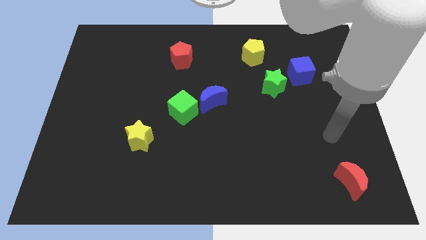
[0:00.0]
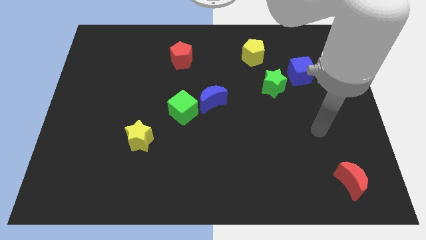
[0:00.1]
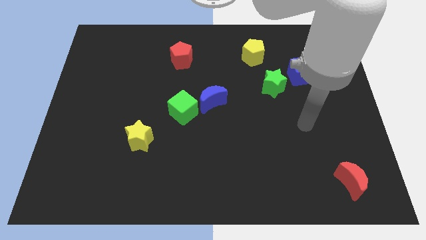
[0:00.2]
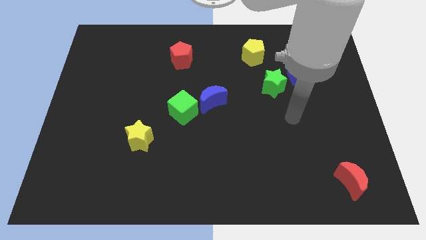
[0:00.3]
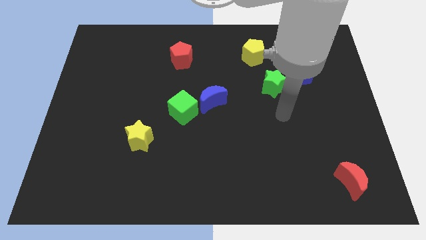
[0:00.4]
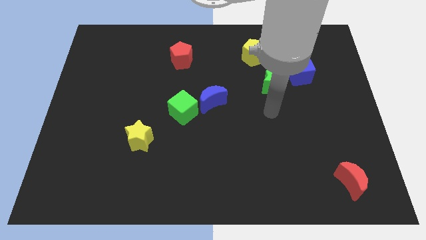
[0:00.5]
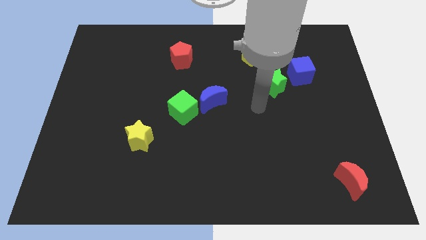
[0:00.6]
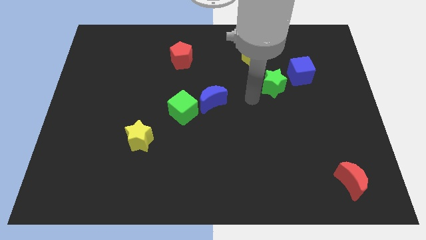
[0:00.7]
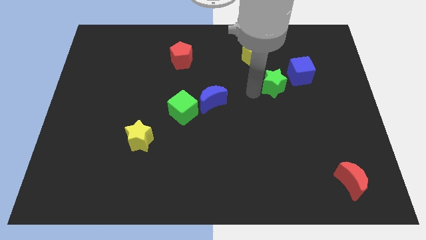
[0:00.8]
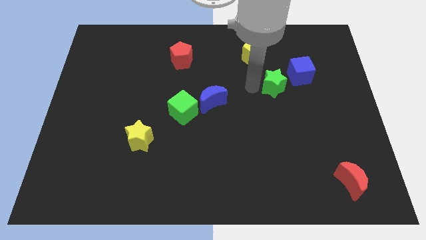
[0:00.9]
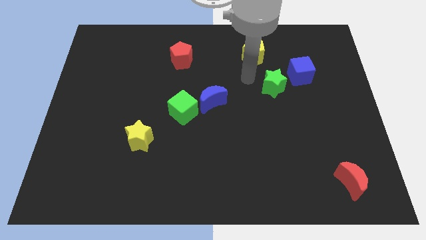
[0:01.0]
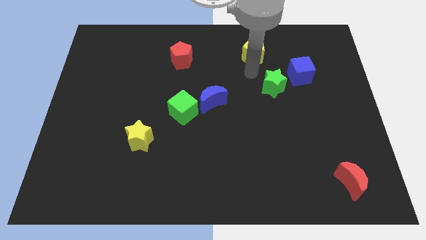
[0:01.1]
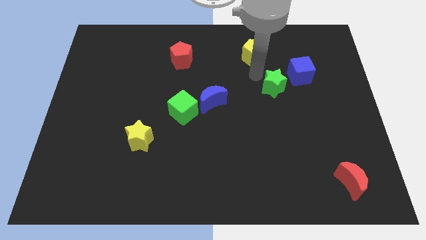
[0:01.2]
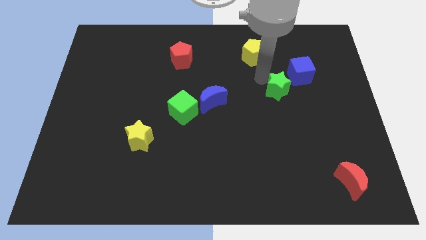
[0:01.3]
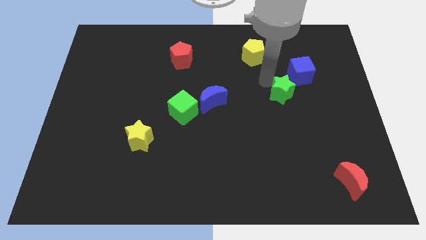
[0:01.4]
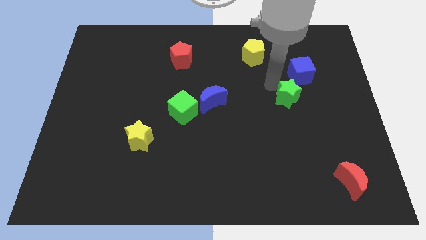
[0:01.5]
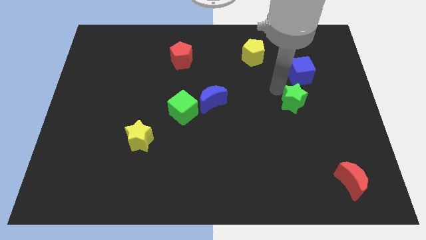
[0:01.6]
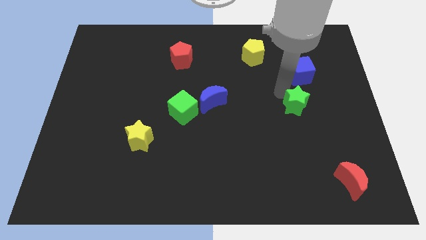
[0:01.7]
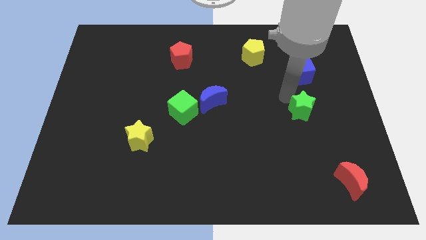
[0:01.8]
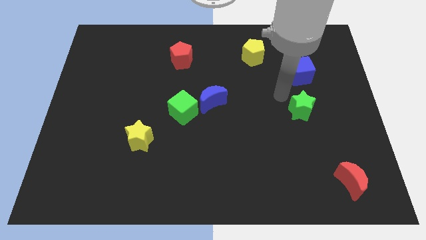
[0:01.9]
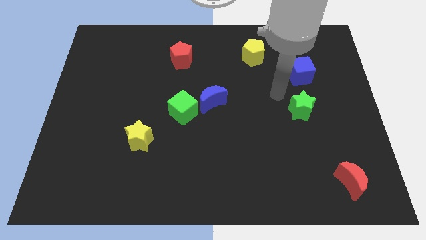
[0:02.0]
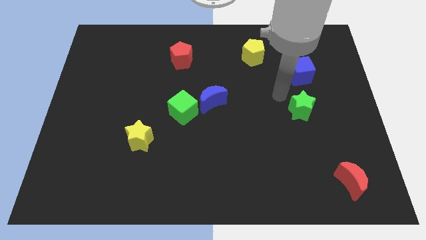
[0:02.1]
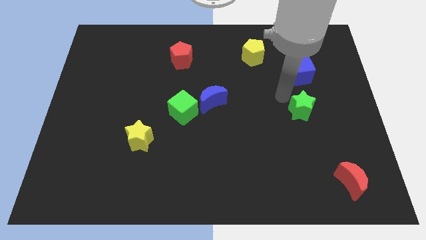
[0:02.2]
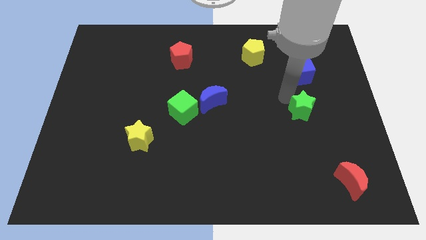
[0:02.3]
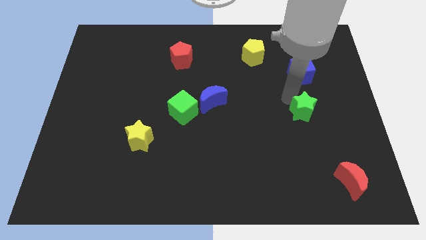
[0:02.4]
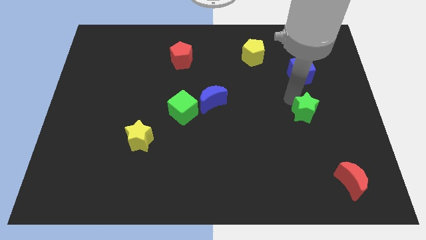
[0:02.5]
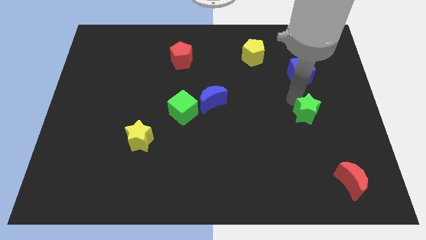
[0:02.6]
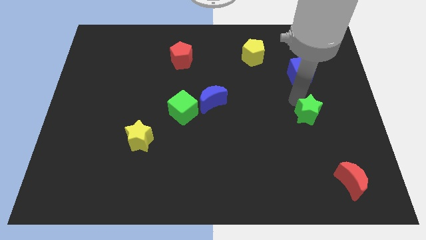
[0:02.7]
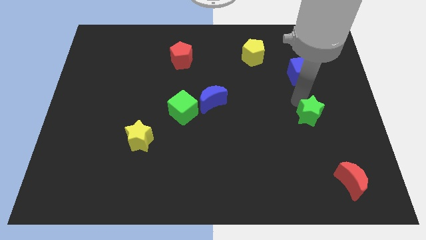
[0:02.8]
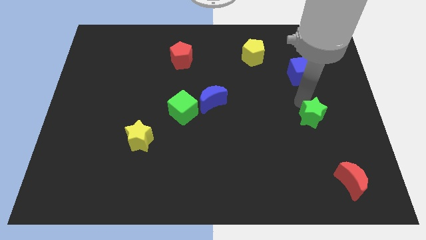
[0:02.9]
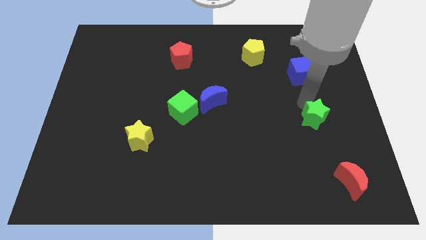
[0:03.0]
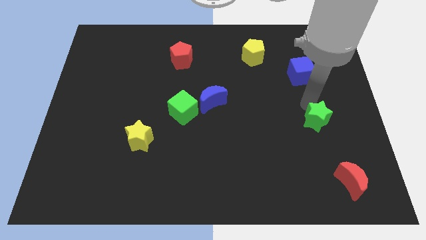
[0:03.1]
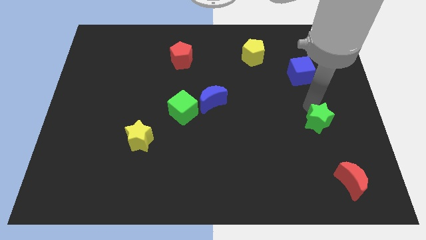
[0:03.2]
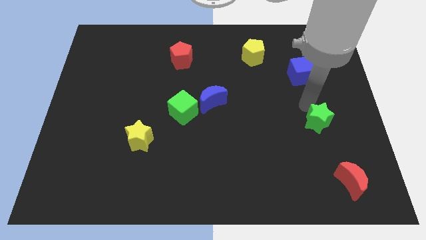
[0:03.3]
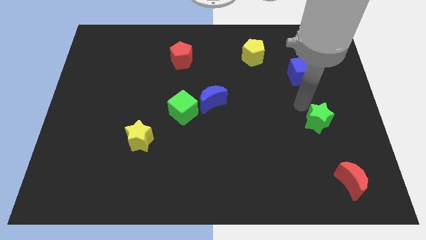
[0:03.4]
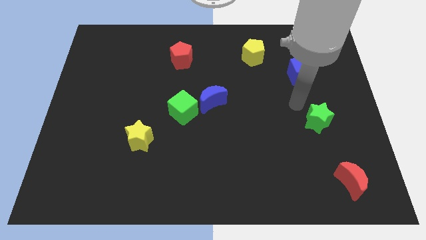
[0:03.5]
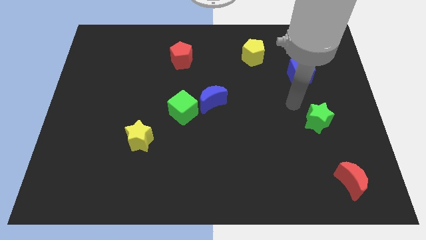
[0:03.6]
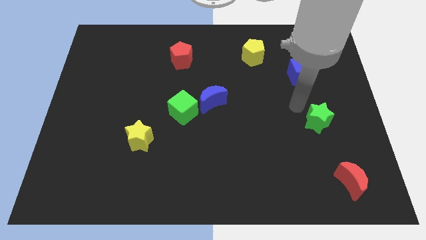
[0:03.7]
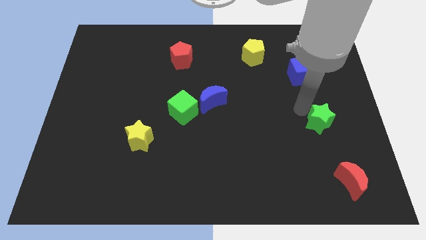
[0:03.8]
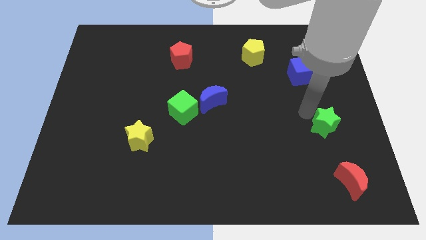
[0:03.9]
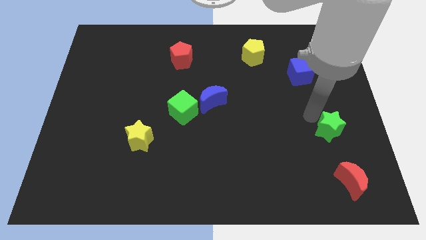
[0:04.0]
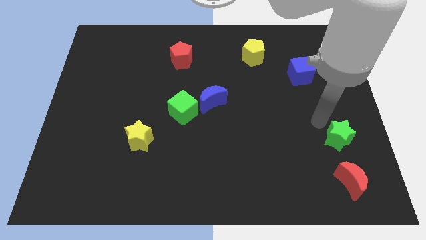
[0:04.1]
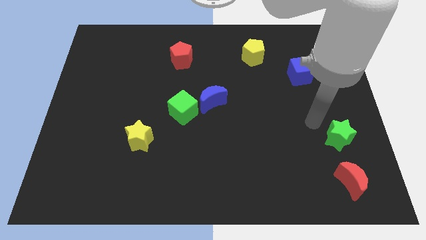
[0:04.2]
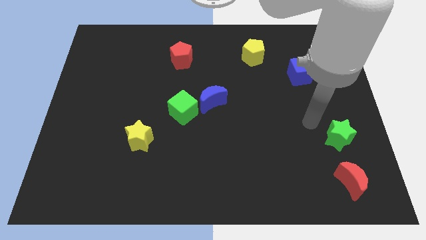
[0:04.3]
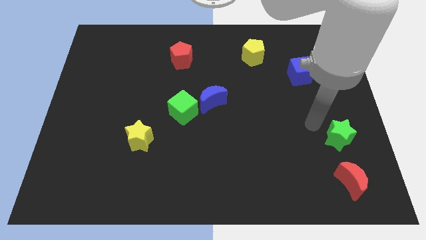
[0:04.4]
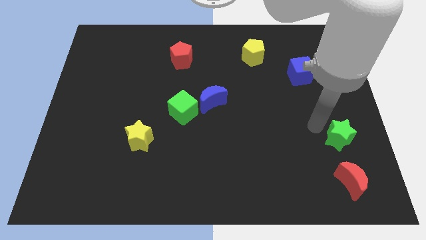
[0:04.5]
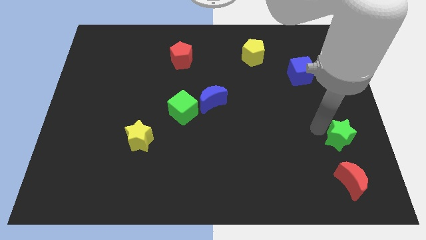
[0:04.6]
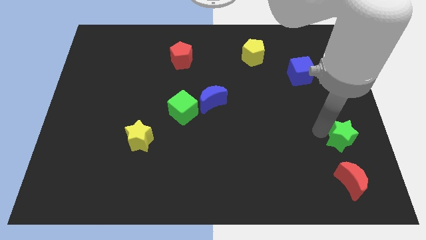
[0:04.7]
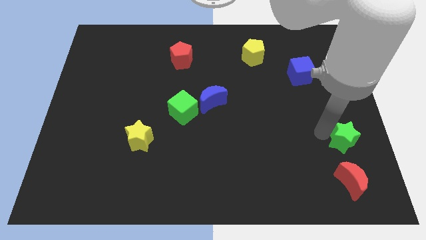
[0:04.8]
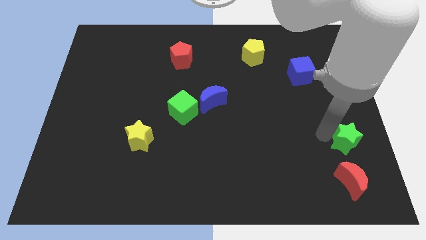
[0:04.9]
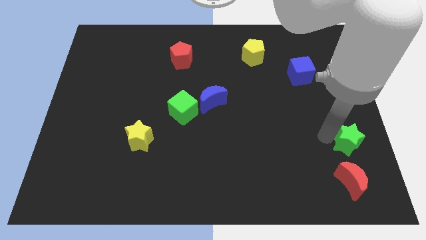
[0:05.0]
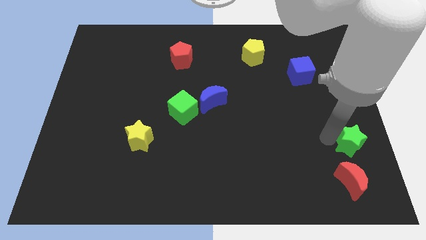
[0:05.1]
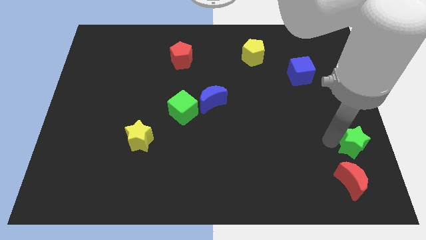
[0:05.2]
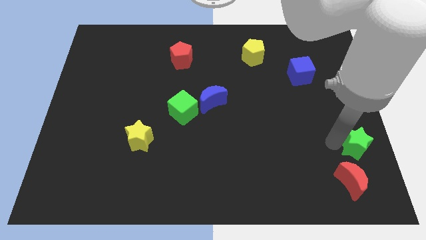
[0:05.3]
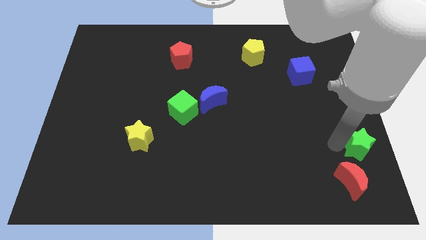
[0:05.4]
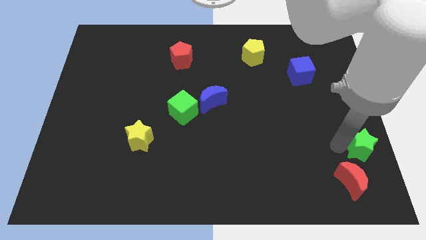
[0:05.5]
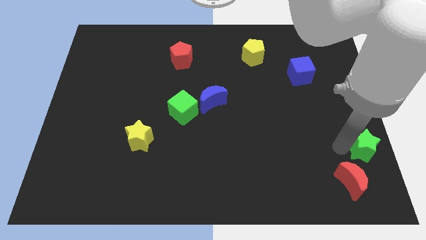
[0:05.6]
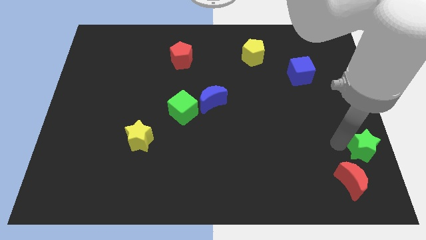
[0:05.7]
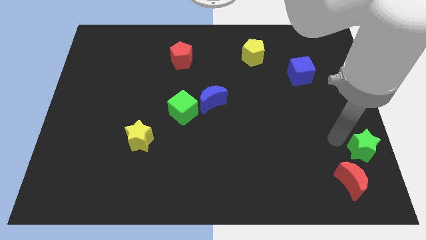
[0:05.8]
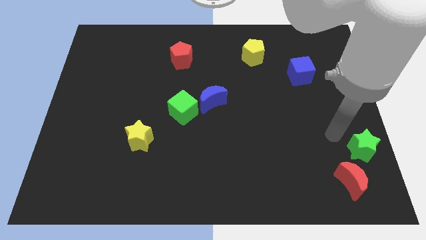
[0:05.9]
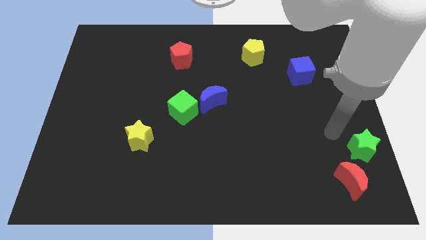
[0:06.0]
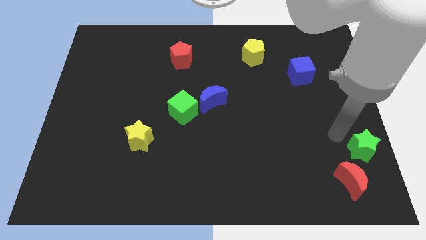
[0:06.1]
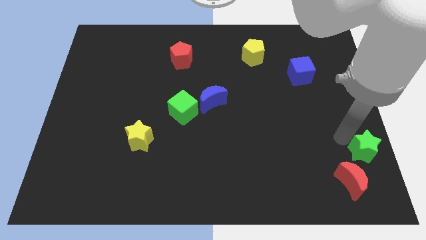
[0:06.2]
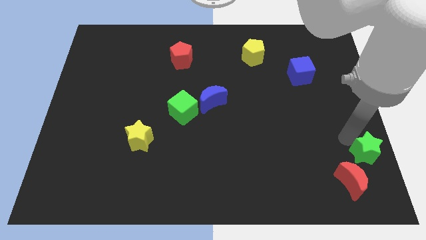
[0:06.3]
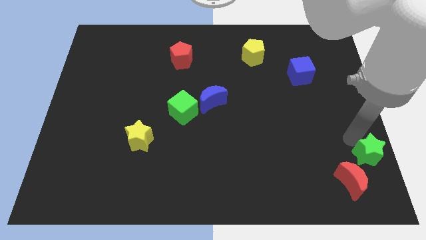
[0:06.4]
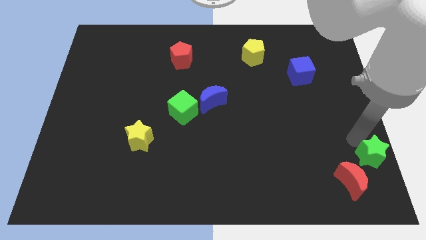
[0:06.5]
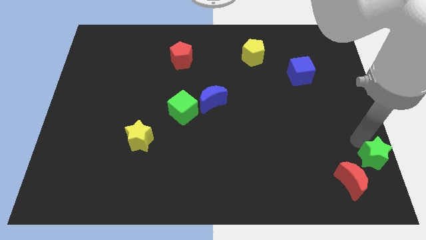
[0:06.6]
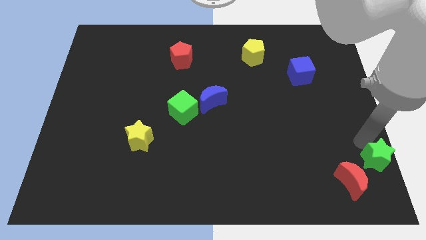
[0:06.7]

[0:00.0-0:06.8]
put the green star to the bottom right corner
